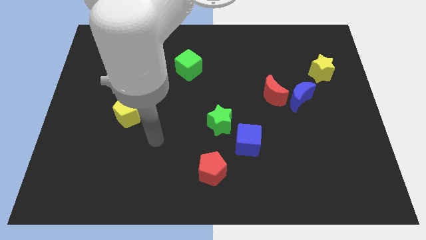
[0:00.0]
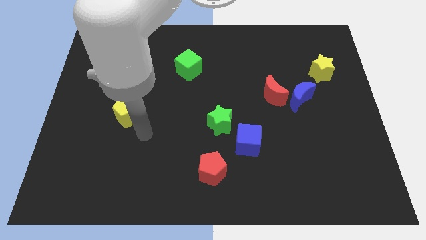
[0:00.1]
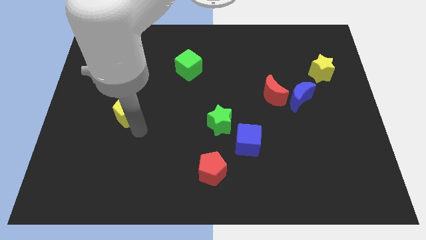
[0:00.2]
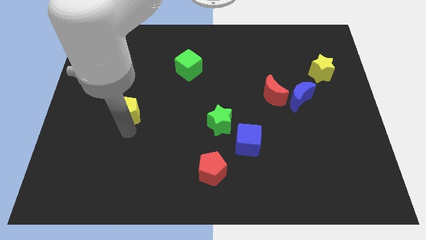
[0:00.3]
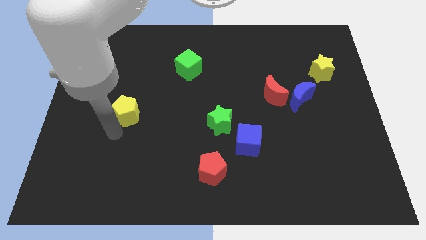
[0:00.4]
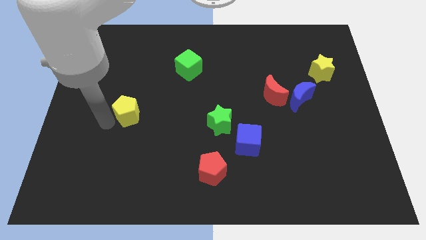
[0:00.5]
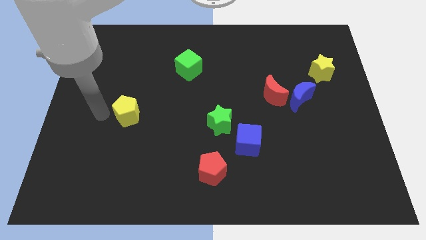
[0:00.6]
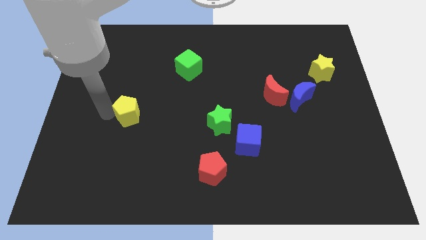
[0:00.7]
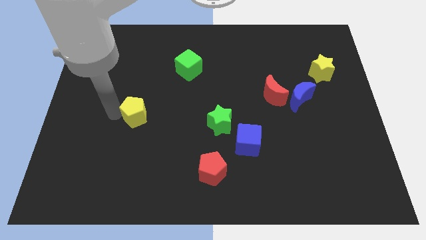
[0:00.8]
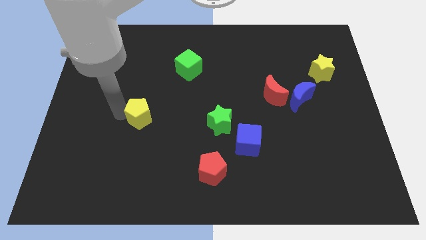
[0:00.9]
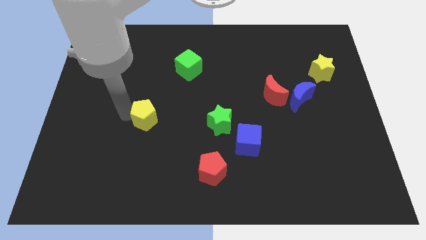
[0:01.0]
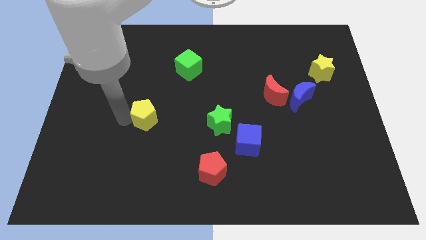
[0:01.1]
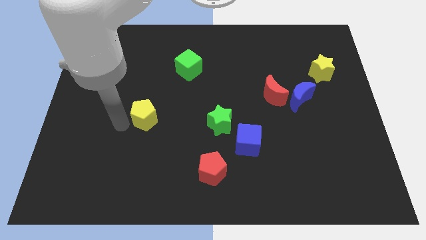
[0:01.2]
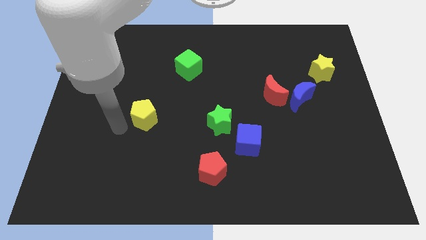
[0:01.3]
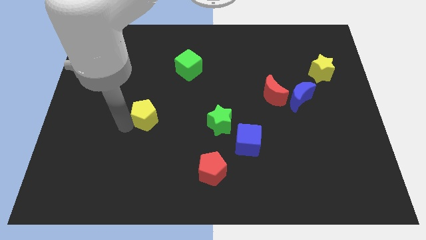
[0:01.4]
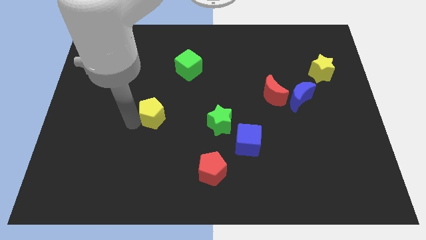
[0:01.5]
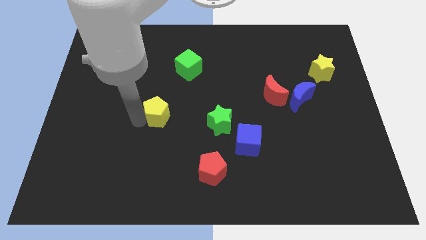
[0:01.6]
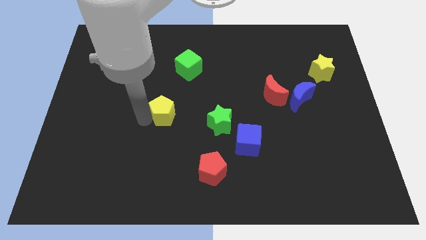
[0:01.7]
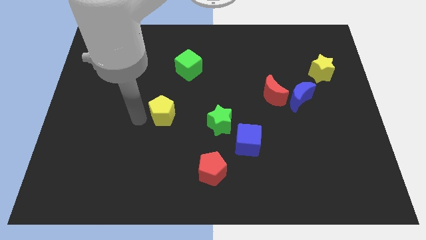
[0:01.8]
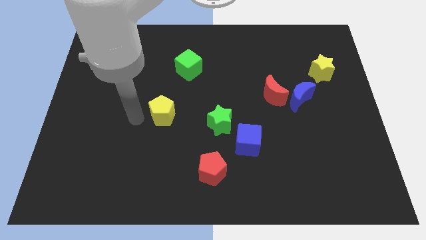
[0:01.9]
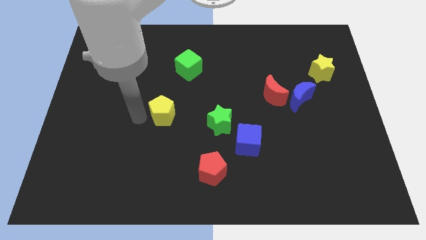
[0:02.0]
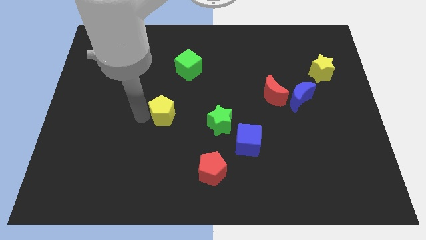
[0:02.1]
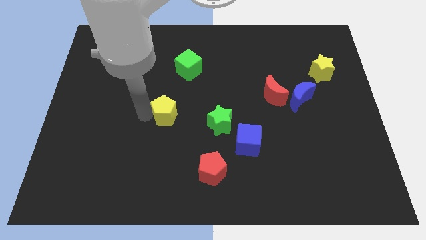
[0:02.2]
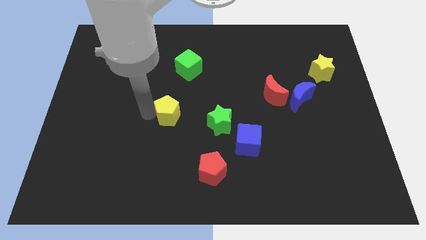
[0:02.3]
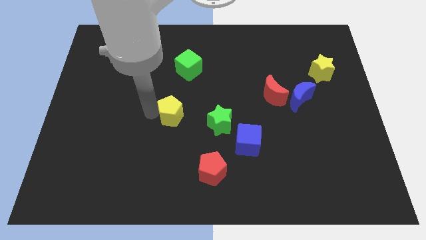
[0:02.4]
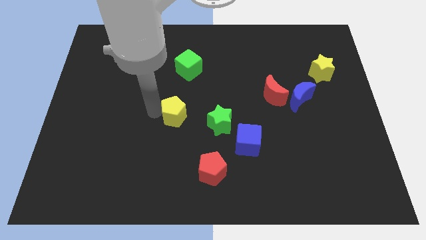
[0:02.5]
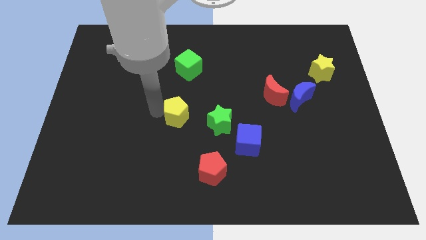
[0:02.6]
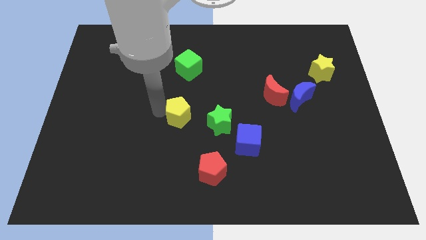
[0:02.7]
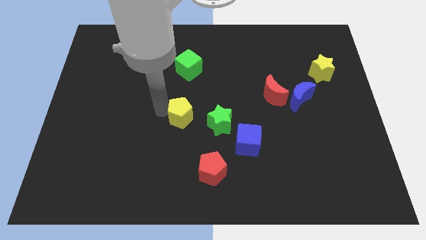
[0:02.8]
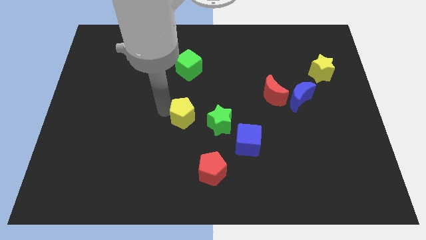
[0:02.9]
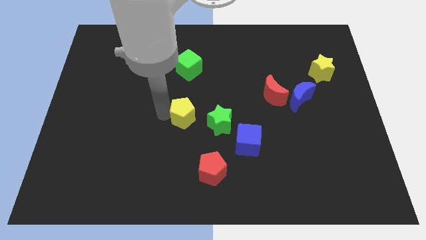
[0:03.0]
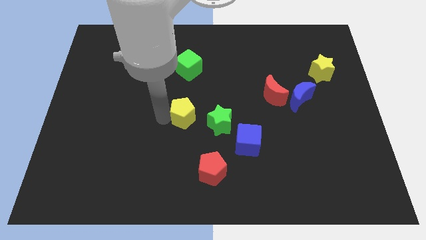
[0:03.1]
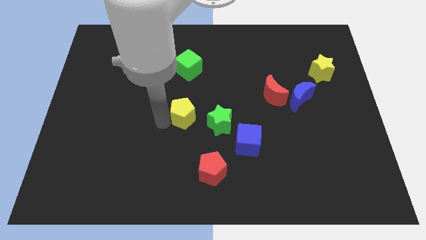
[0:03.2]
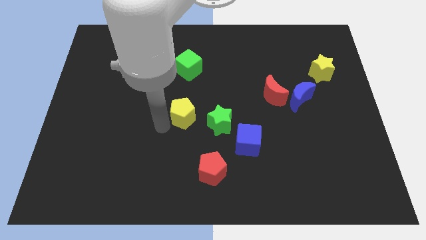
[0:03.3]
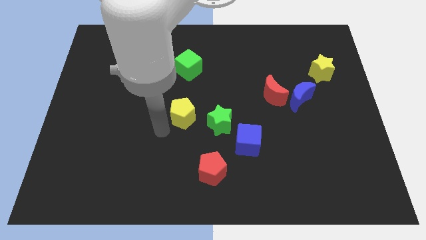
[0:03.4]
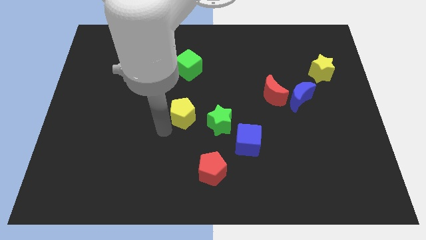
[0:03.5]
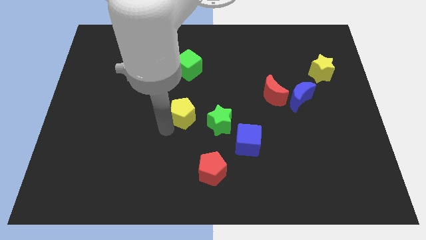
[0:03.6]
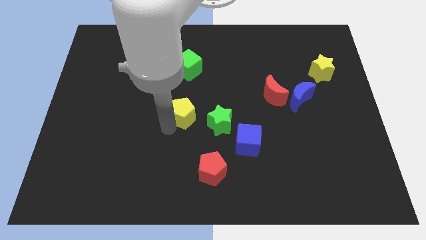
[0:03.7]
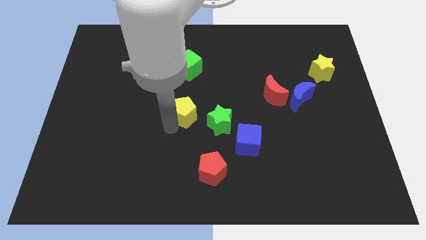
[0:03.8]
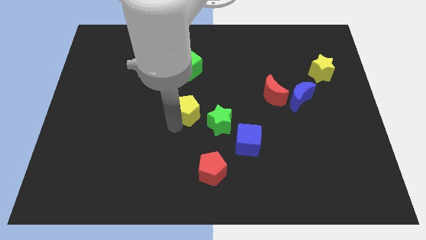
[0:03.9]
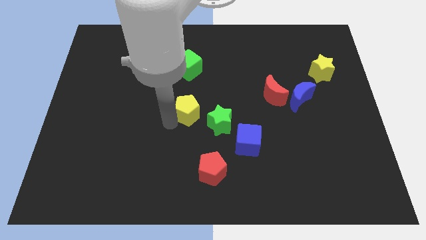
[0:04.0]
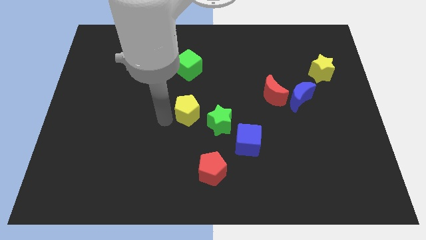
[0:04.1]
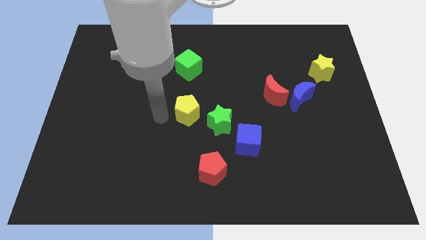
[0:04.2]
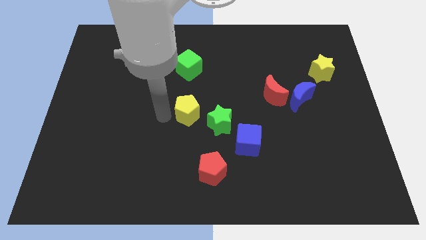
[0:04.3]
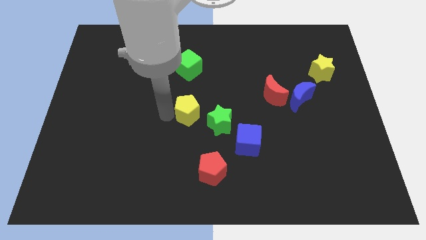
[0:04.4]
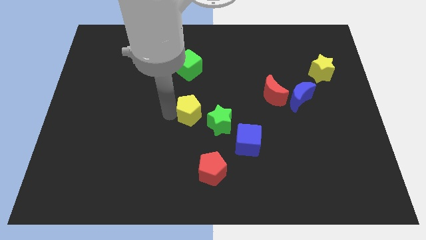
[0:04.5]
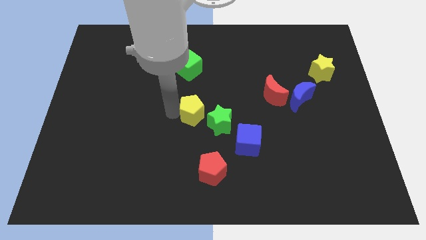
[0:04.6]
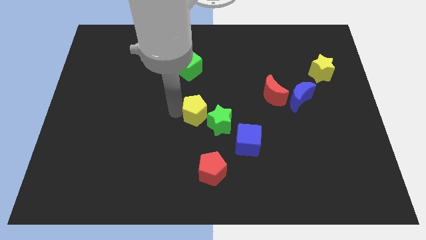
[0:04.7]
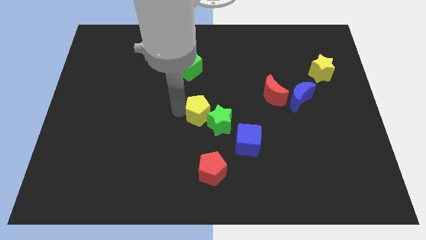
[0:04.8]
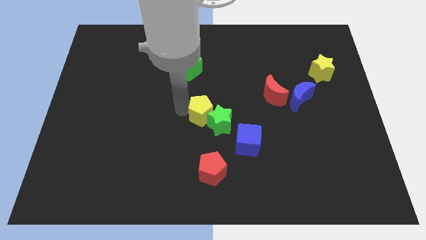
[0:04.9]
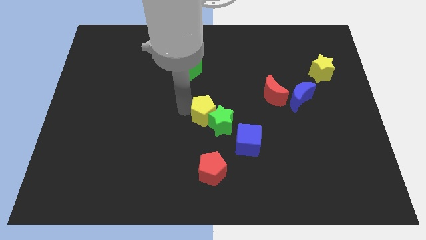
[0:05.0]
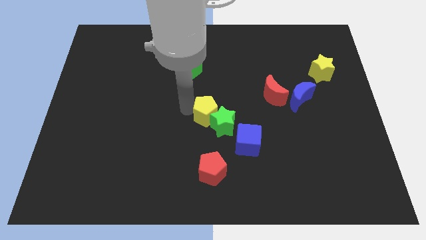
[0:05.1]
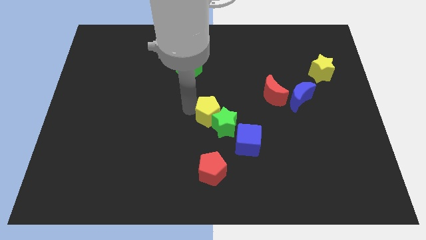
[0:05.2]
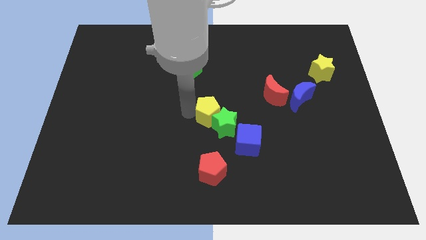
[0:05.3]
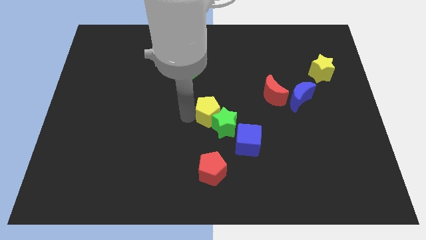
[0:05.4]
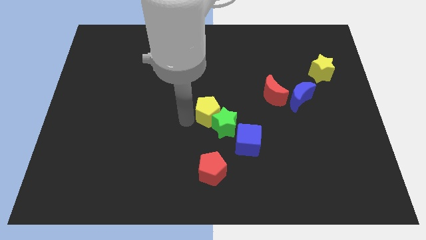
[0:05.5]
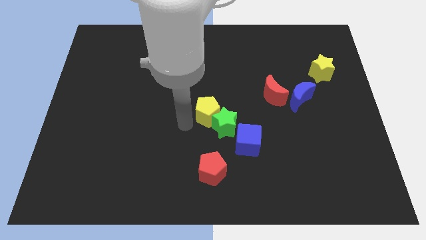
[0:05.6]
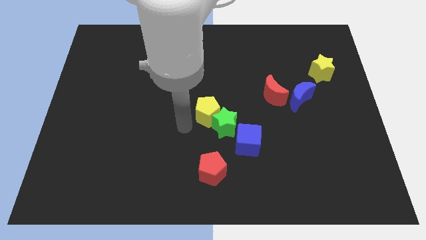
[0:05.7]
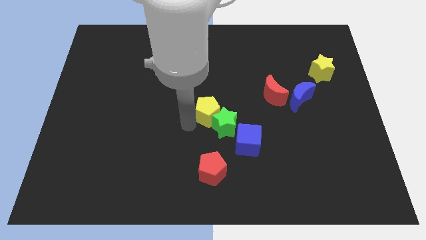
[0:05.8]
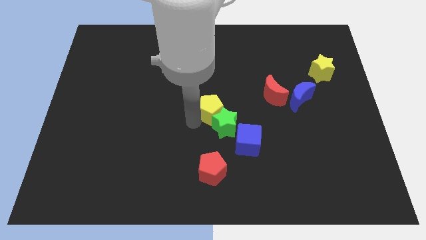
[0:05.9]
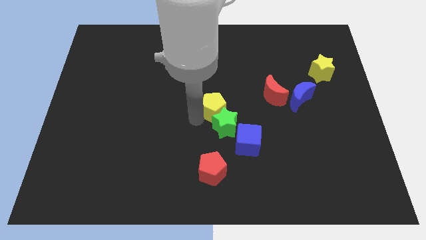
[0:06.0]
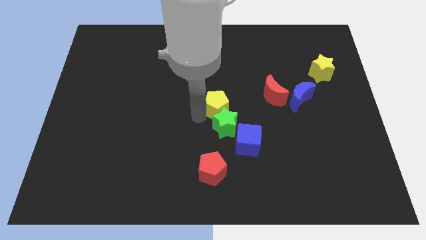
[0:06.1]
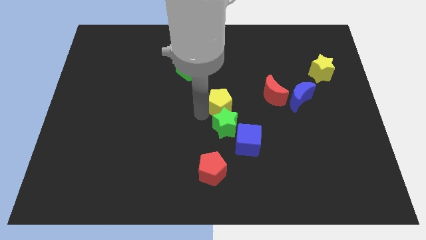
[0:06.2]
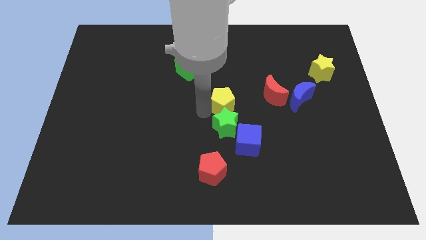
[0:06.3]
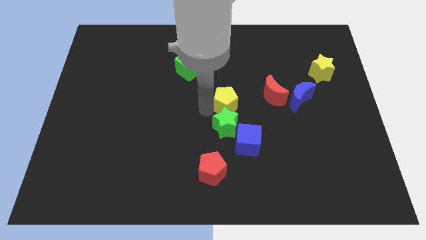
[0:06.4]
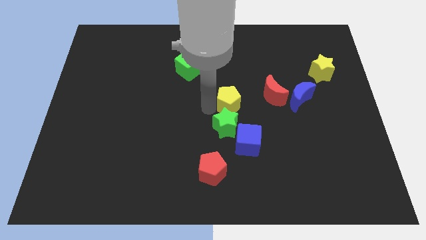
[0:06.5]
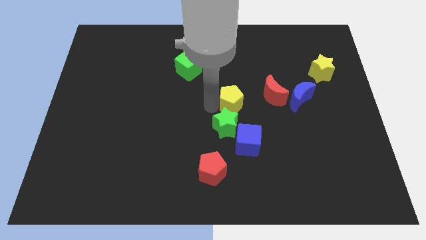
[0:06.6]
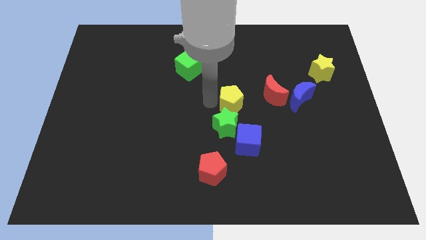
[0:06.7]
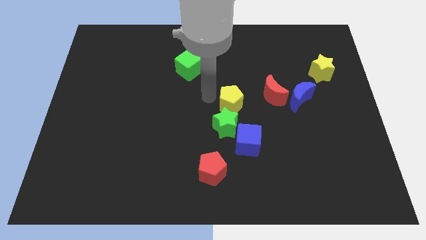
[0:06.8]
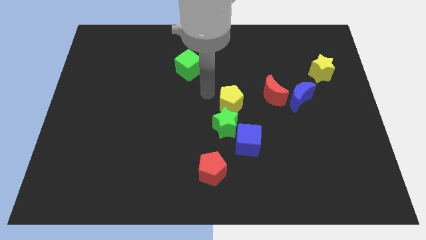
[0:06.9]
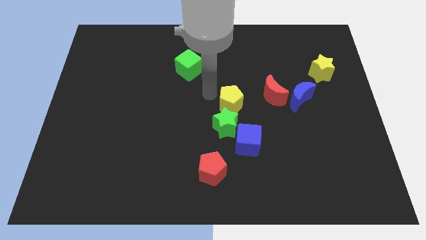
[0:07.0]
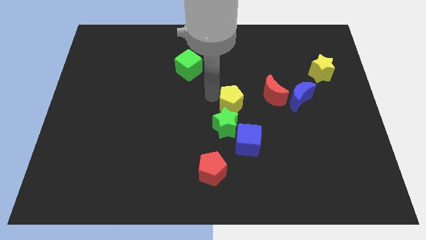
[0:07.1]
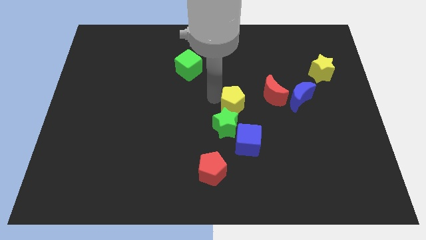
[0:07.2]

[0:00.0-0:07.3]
move the yellow pentagon to the bottom left side of the red moon
